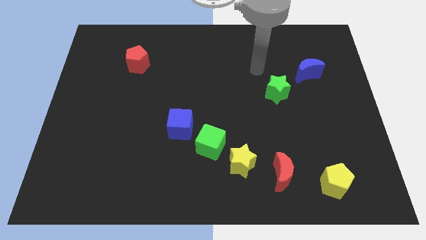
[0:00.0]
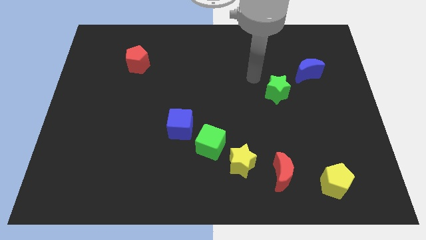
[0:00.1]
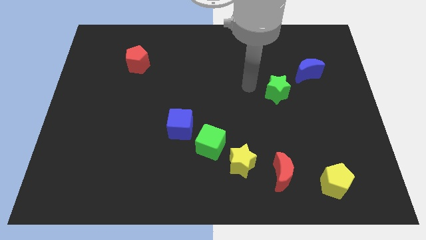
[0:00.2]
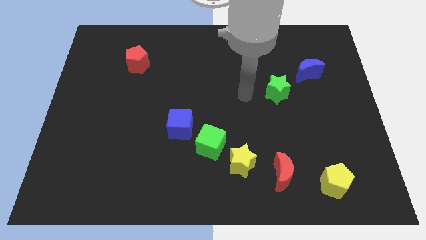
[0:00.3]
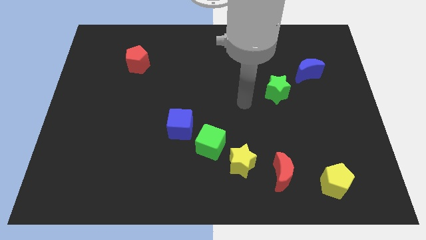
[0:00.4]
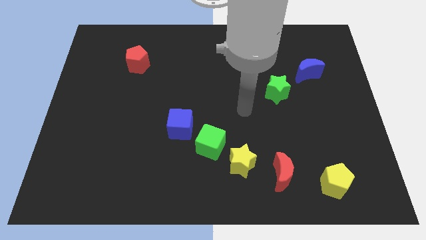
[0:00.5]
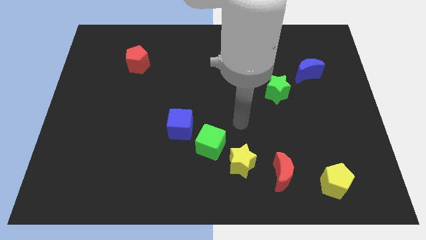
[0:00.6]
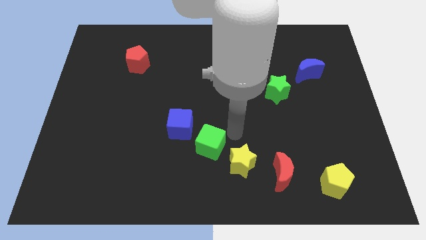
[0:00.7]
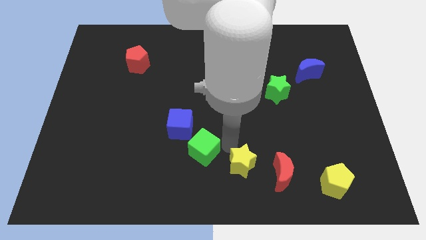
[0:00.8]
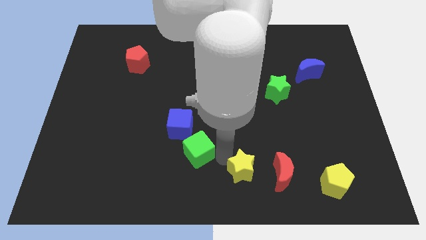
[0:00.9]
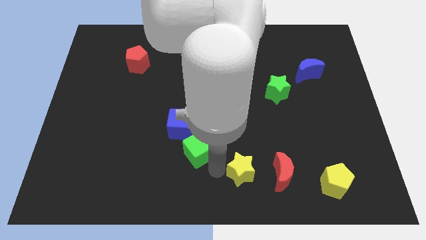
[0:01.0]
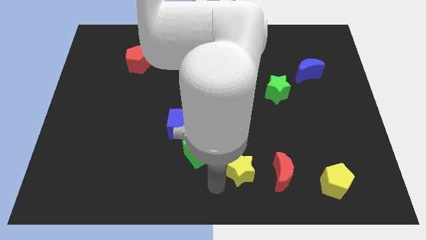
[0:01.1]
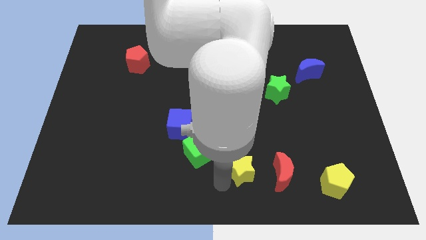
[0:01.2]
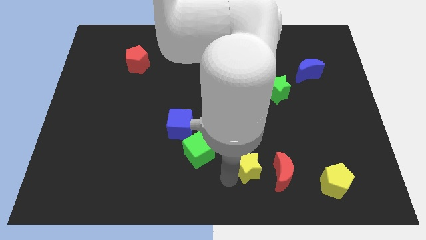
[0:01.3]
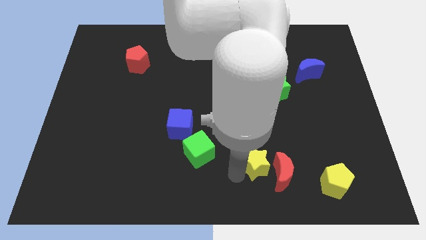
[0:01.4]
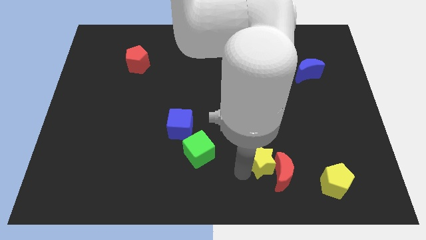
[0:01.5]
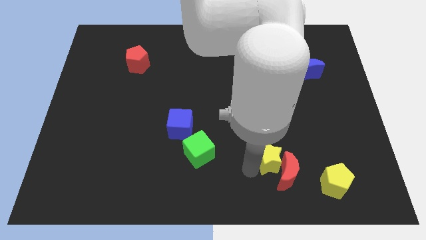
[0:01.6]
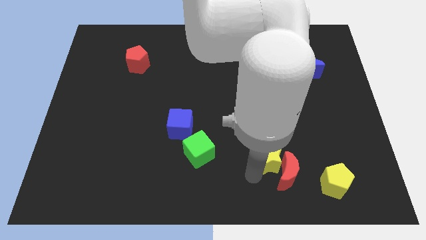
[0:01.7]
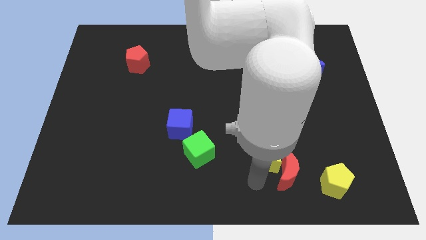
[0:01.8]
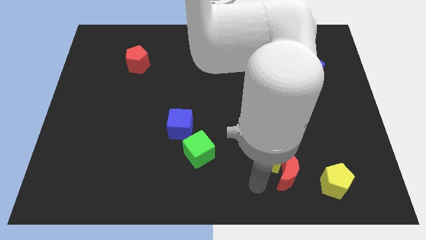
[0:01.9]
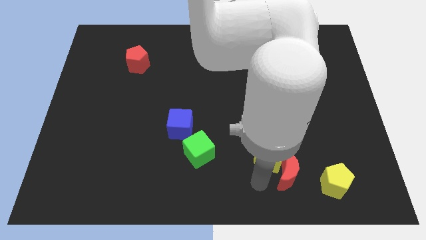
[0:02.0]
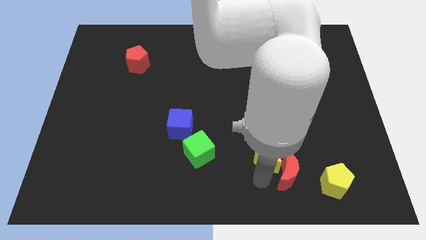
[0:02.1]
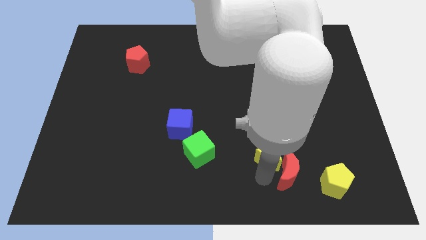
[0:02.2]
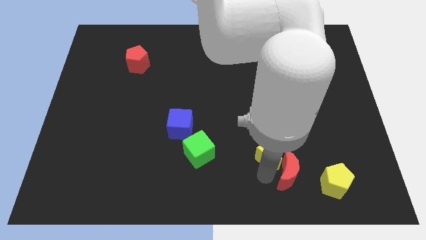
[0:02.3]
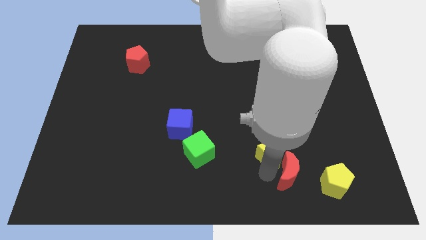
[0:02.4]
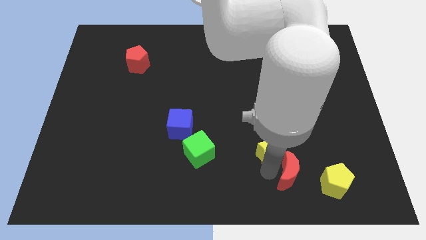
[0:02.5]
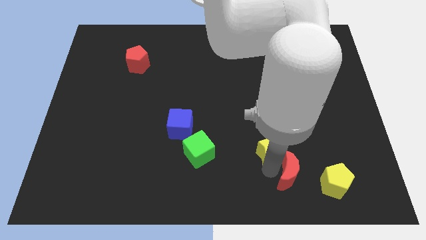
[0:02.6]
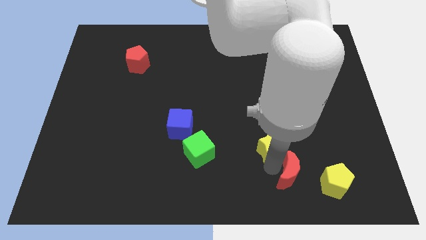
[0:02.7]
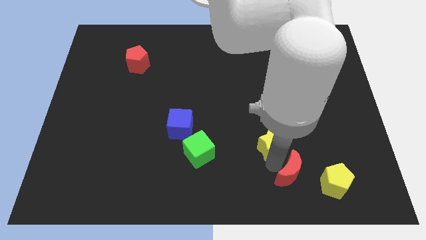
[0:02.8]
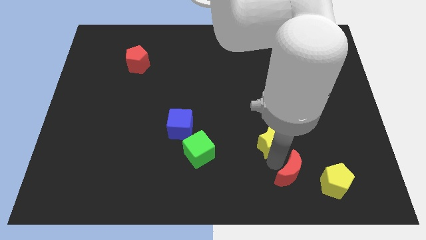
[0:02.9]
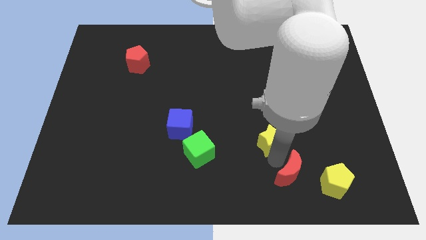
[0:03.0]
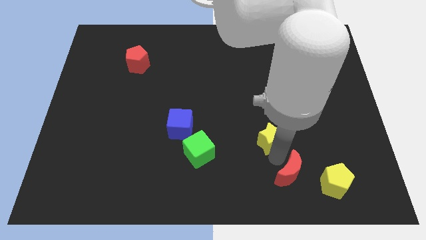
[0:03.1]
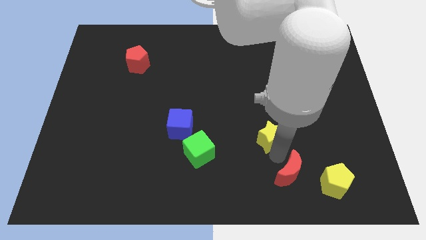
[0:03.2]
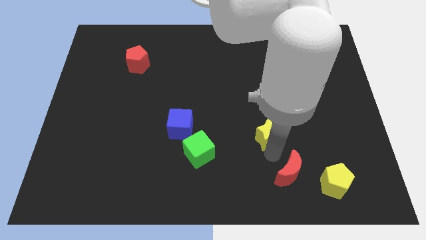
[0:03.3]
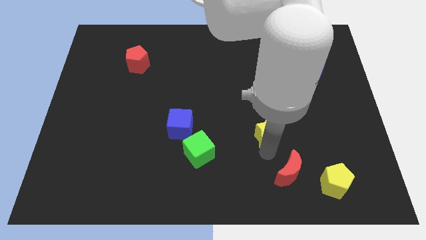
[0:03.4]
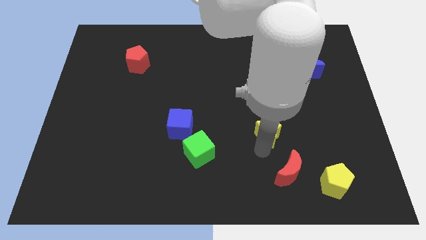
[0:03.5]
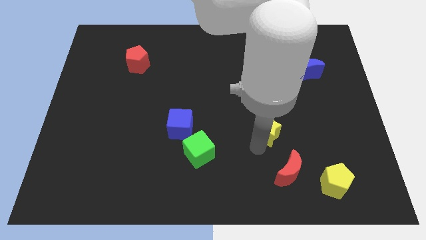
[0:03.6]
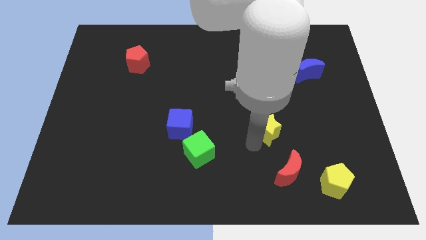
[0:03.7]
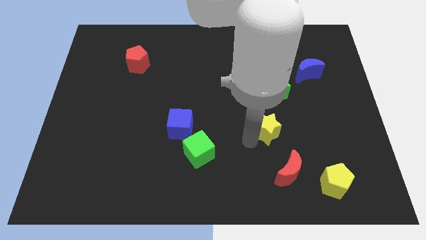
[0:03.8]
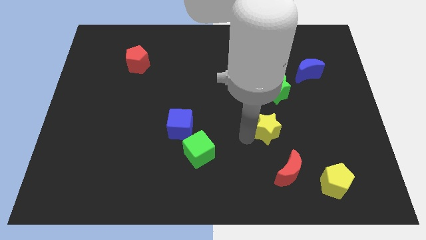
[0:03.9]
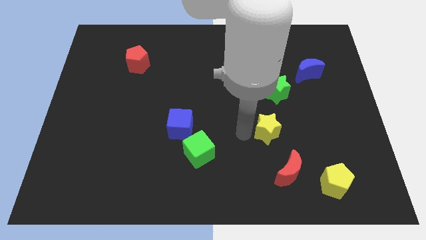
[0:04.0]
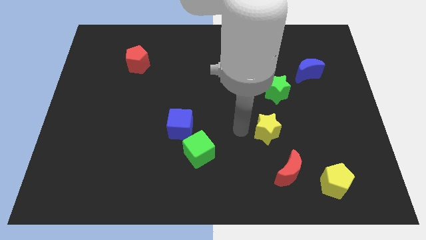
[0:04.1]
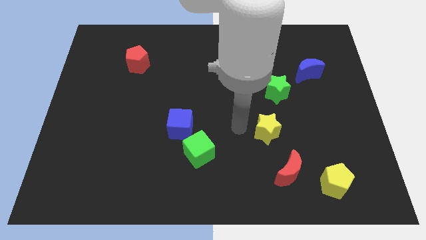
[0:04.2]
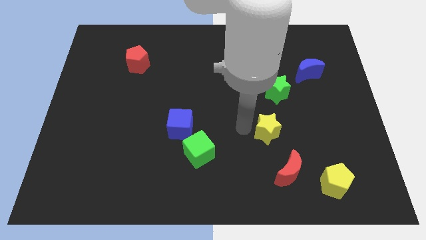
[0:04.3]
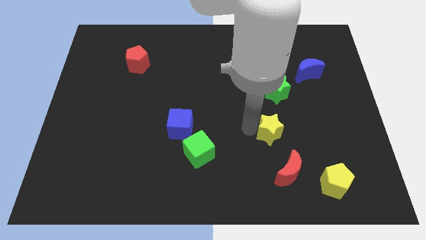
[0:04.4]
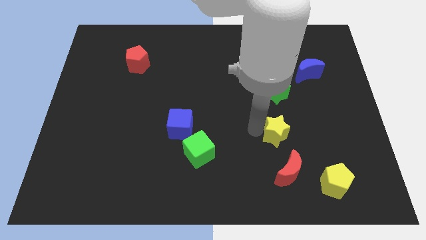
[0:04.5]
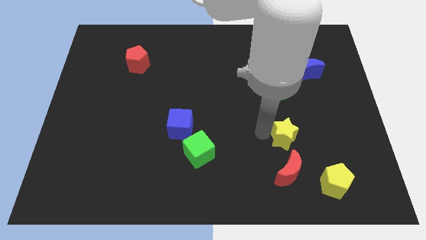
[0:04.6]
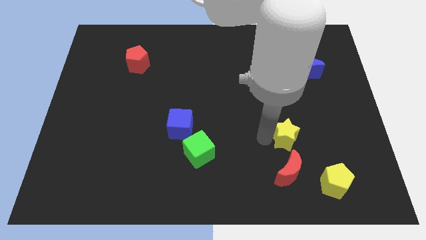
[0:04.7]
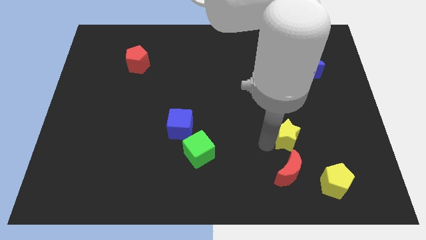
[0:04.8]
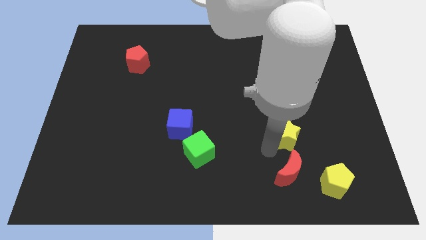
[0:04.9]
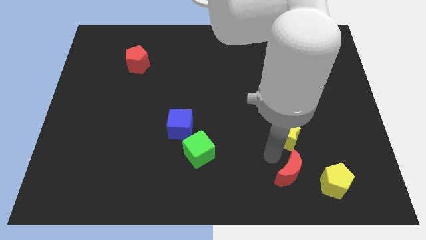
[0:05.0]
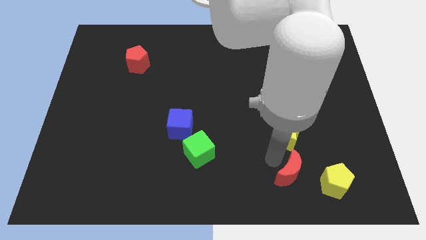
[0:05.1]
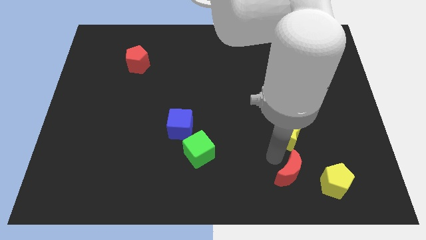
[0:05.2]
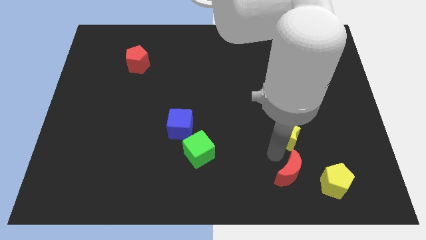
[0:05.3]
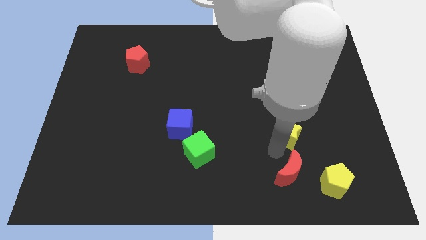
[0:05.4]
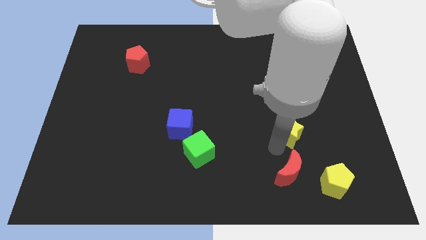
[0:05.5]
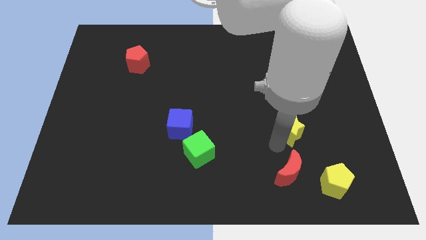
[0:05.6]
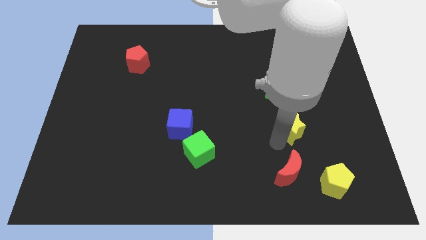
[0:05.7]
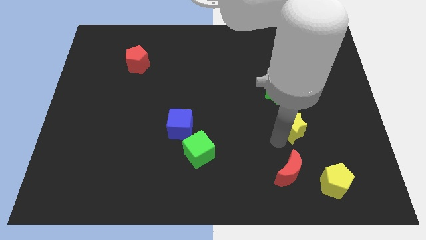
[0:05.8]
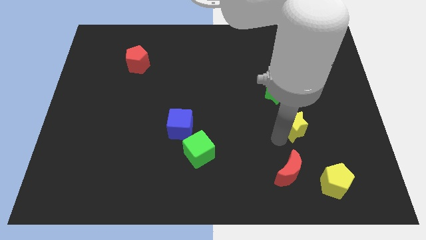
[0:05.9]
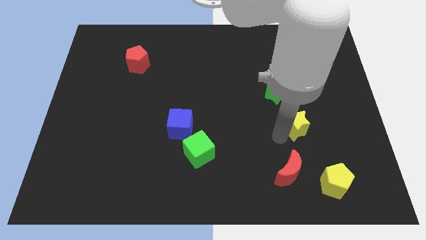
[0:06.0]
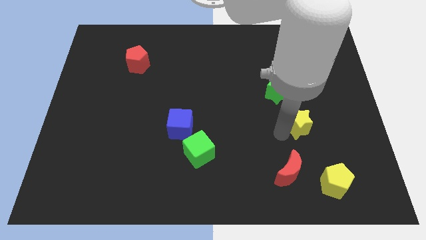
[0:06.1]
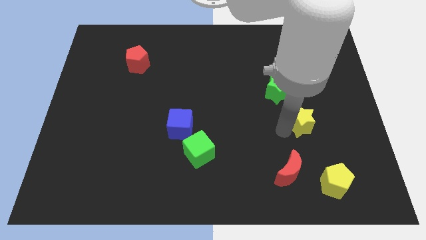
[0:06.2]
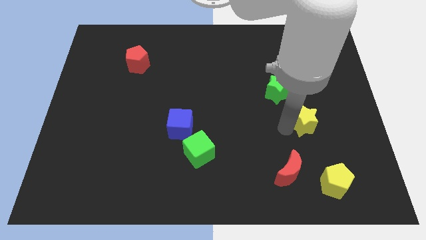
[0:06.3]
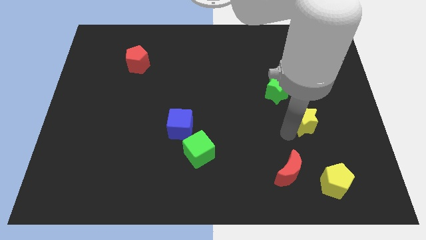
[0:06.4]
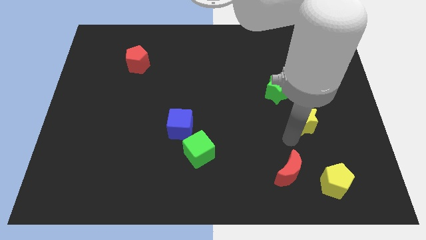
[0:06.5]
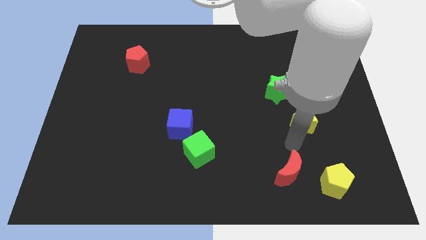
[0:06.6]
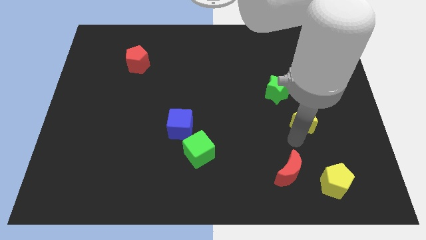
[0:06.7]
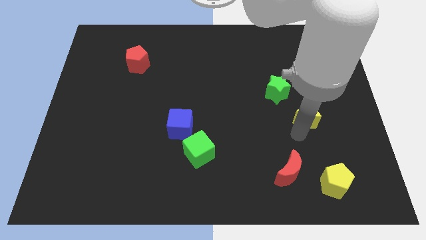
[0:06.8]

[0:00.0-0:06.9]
put the yellow star to the bottom side of the blue moon
